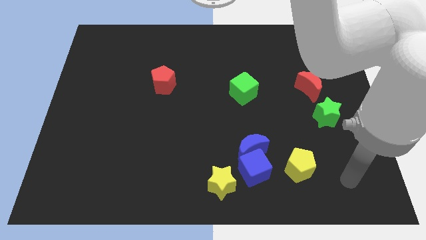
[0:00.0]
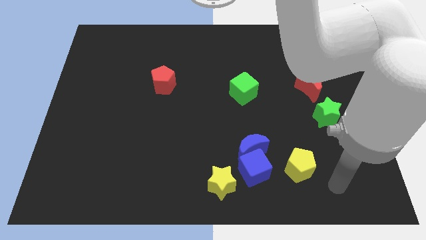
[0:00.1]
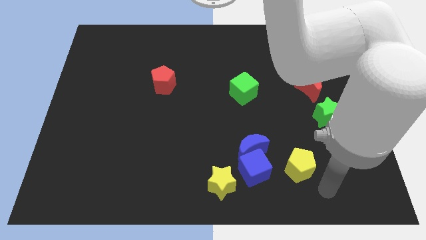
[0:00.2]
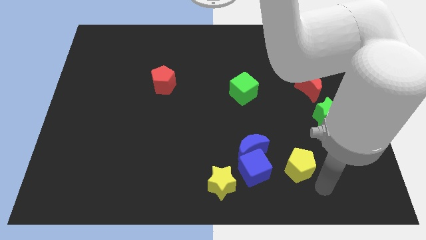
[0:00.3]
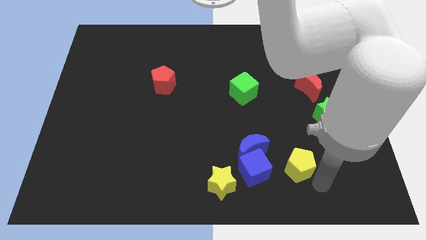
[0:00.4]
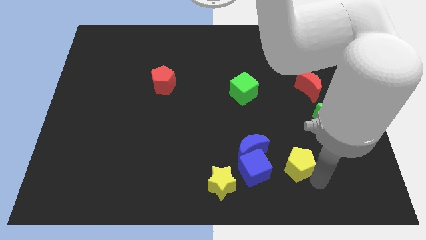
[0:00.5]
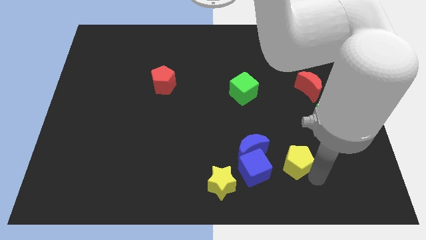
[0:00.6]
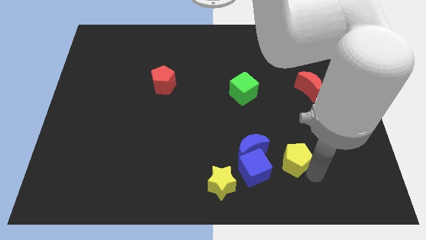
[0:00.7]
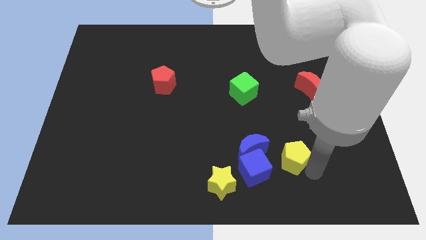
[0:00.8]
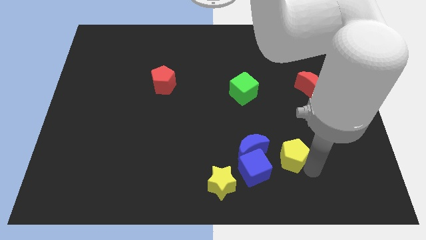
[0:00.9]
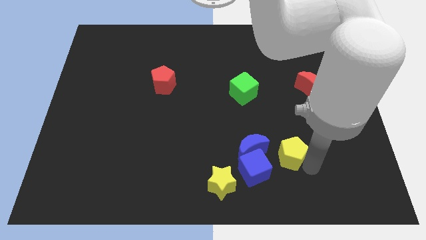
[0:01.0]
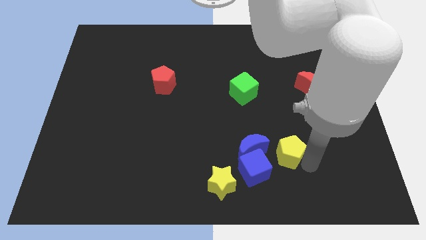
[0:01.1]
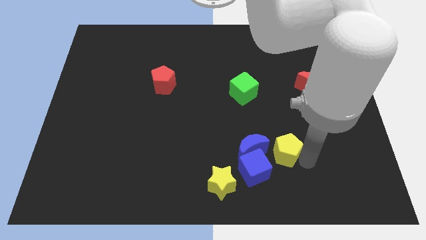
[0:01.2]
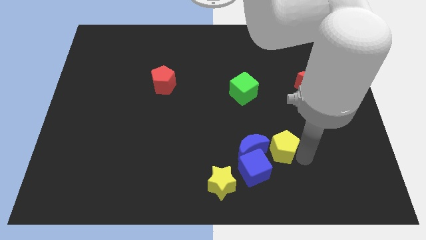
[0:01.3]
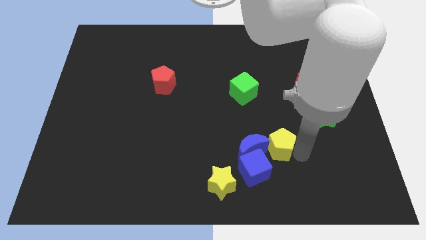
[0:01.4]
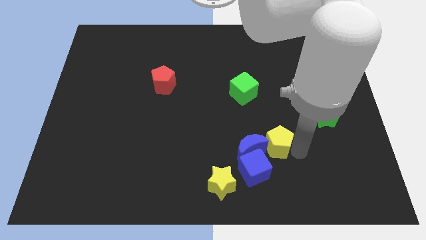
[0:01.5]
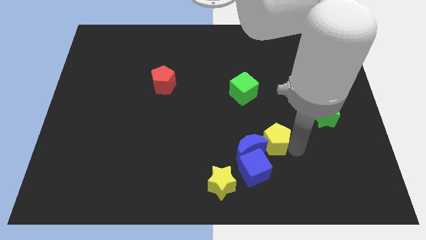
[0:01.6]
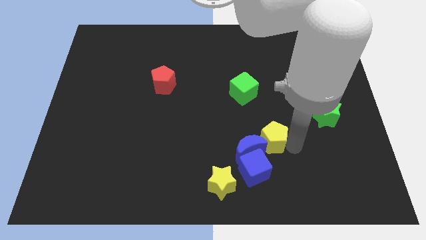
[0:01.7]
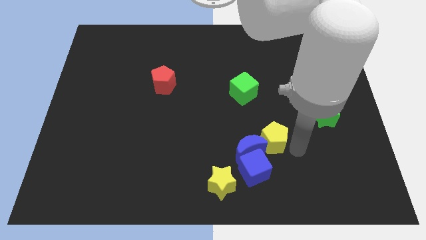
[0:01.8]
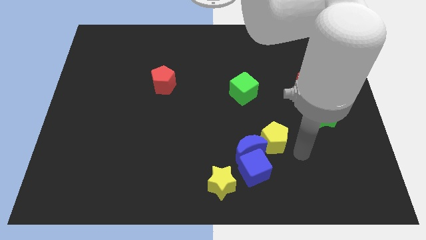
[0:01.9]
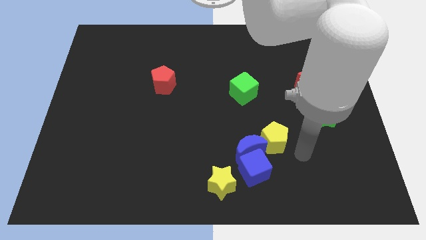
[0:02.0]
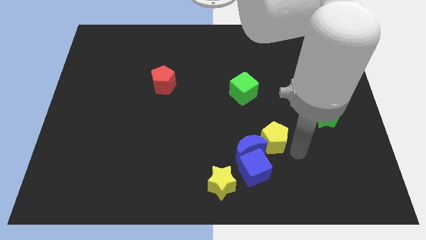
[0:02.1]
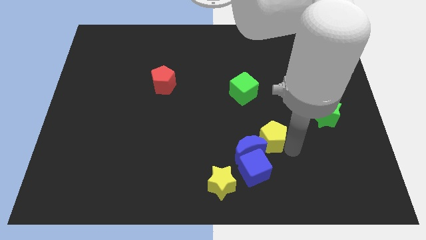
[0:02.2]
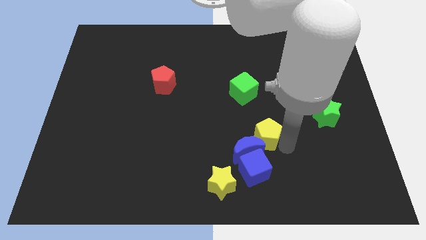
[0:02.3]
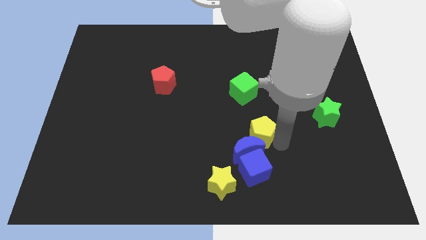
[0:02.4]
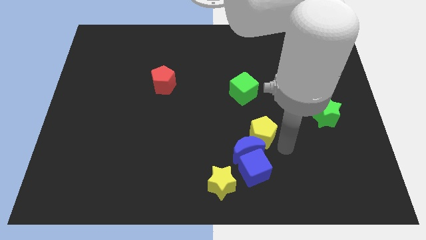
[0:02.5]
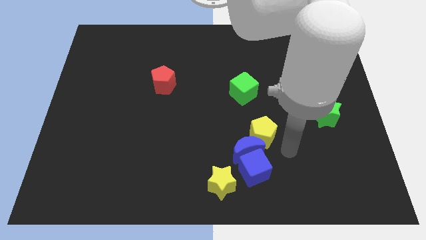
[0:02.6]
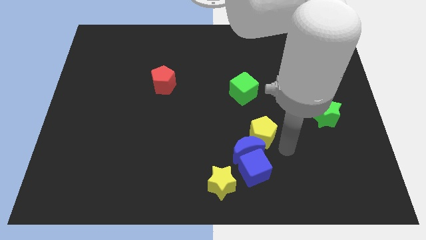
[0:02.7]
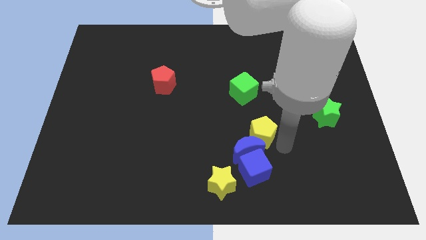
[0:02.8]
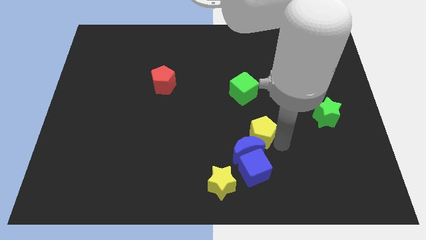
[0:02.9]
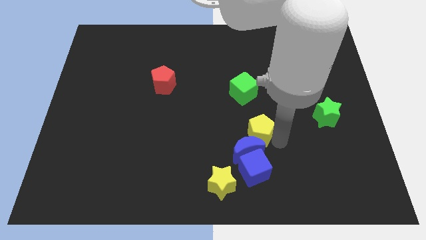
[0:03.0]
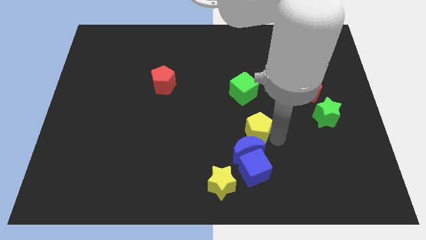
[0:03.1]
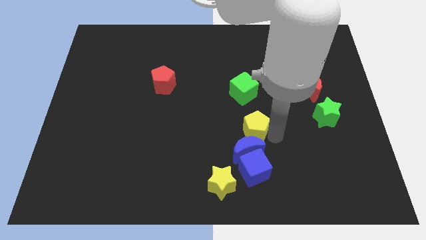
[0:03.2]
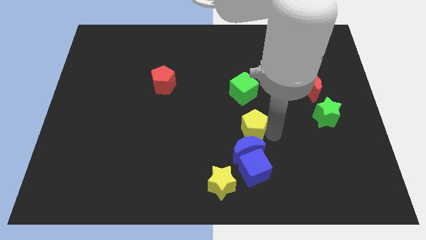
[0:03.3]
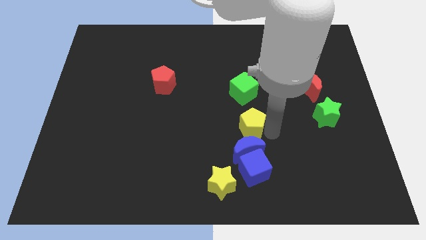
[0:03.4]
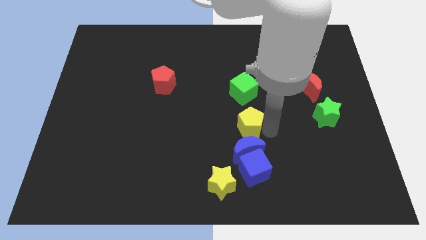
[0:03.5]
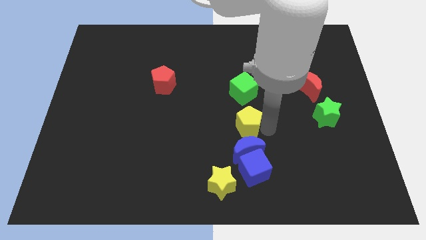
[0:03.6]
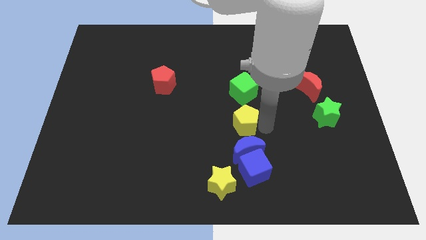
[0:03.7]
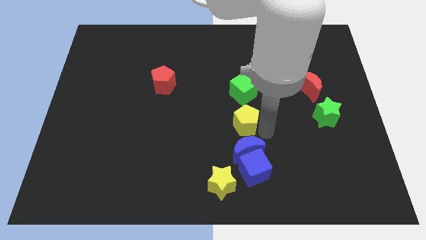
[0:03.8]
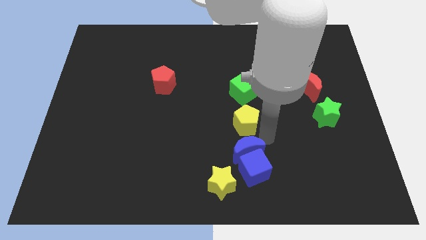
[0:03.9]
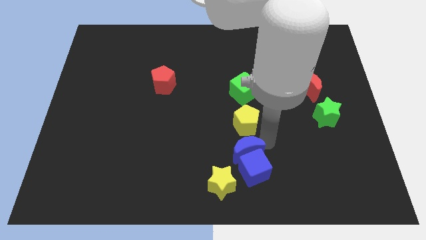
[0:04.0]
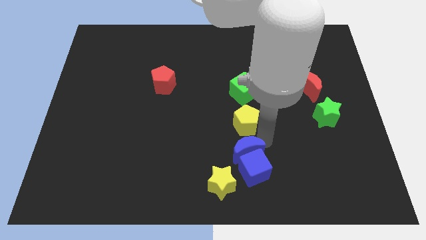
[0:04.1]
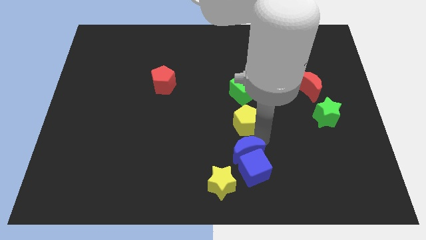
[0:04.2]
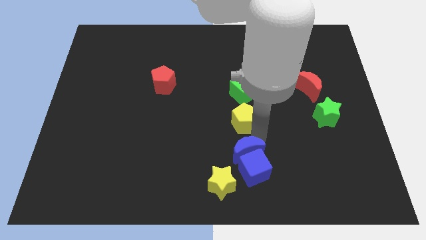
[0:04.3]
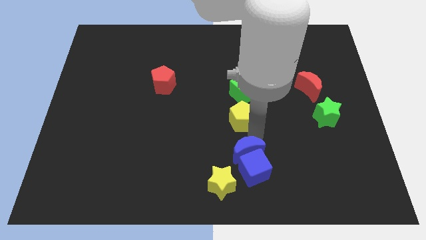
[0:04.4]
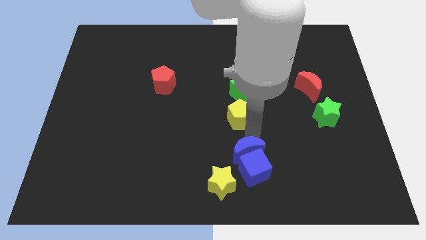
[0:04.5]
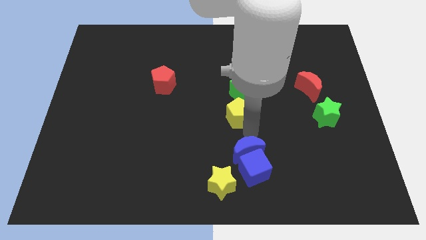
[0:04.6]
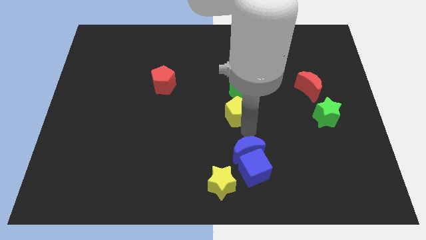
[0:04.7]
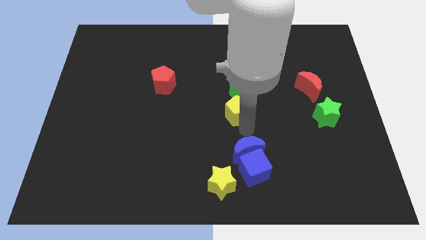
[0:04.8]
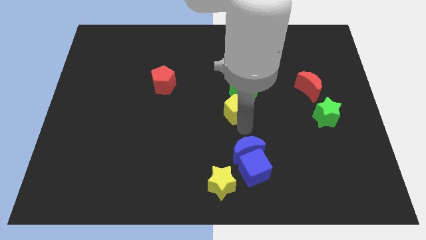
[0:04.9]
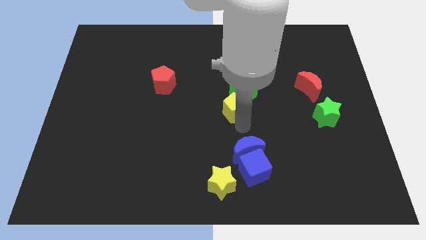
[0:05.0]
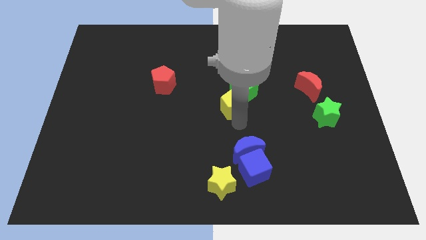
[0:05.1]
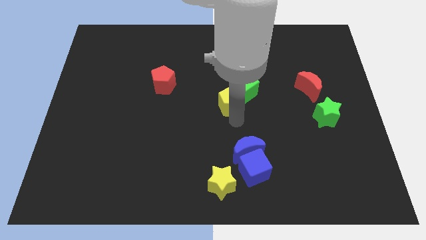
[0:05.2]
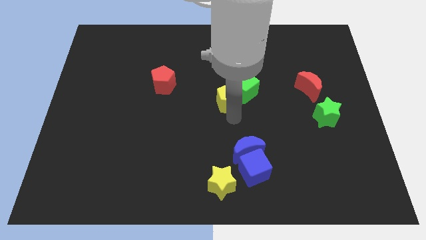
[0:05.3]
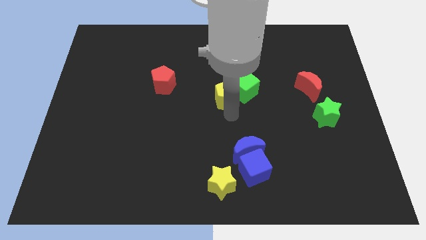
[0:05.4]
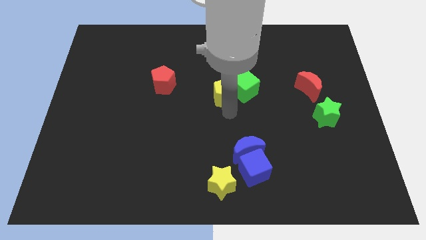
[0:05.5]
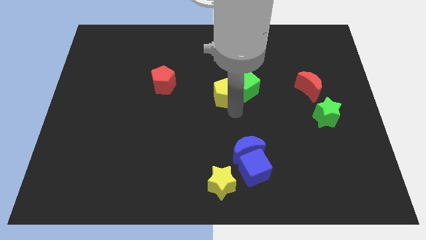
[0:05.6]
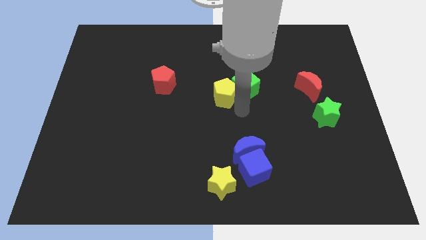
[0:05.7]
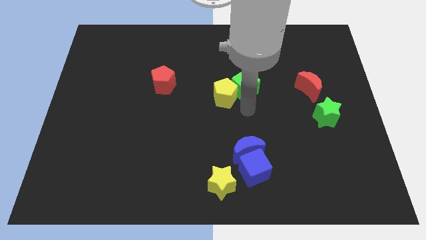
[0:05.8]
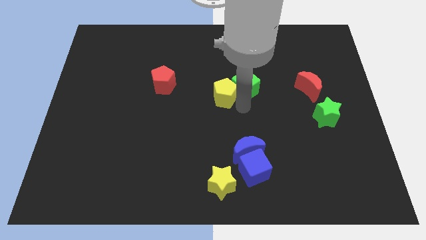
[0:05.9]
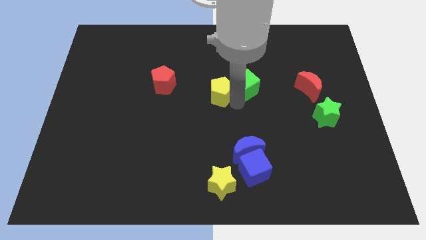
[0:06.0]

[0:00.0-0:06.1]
put the yellow pentagon to the right side of the red pentagon

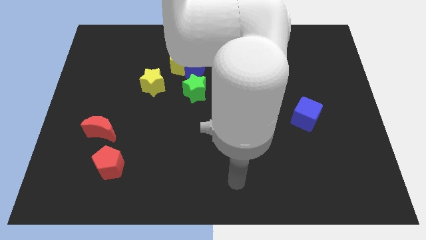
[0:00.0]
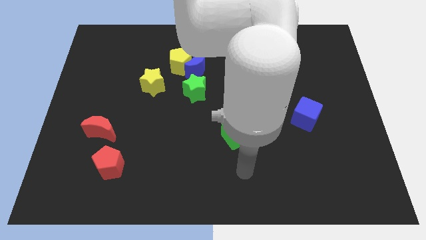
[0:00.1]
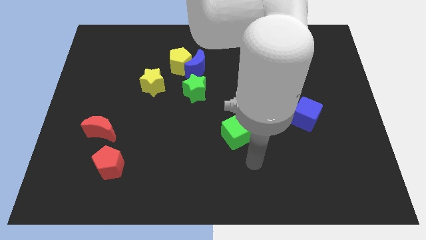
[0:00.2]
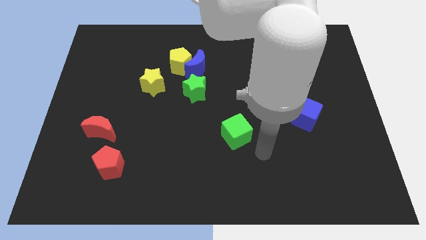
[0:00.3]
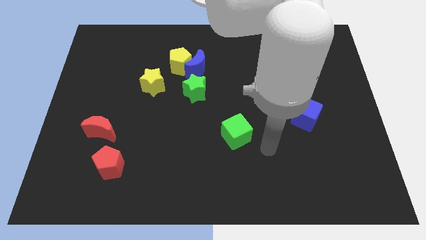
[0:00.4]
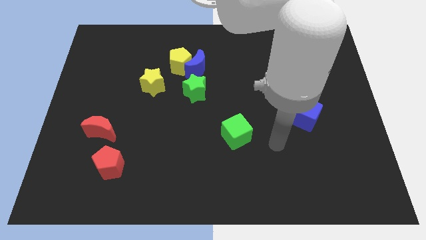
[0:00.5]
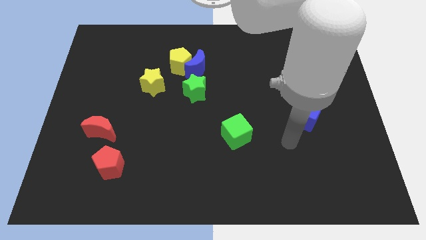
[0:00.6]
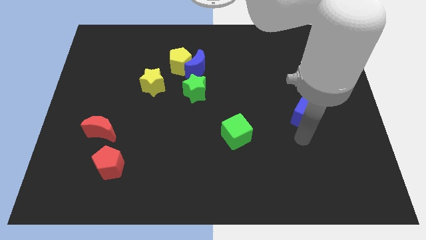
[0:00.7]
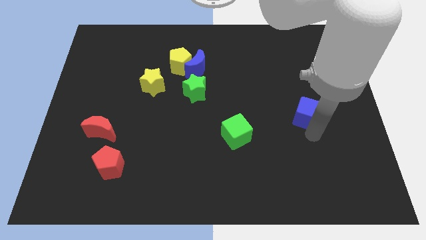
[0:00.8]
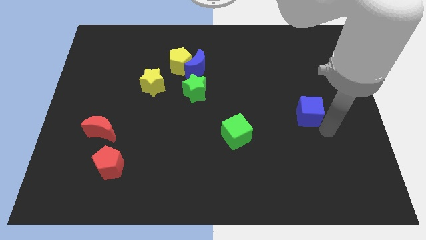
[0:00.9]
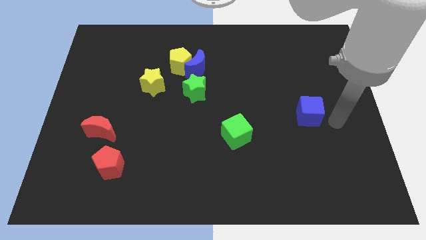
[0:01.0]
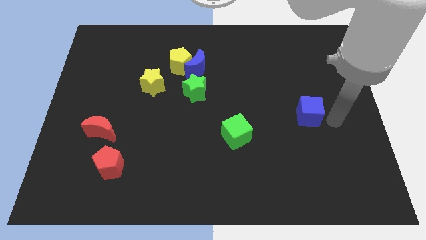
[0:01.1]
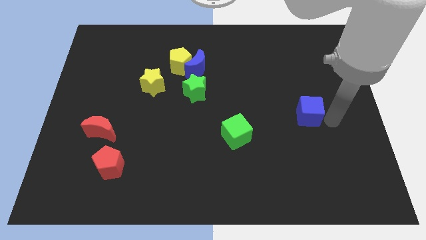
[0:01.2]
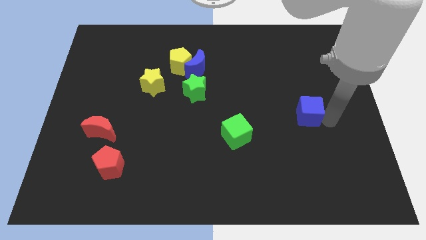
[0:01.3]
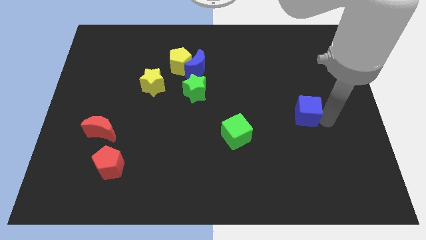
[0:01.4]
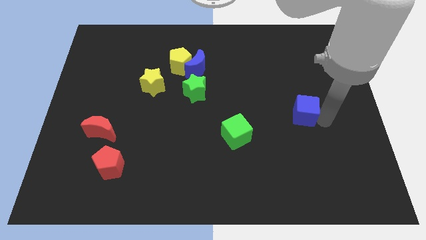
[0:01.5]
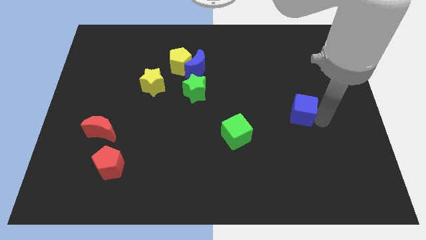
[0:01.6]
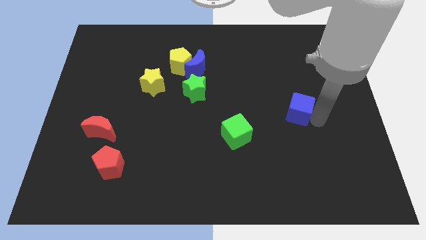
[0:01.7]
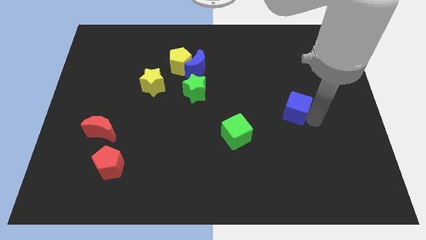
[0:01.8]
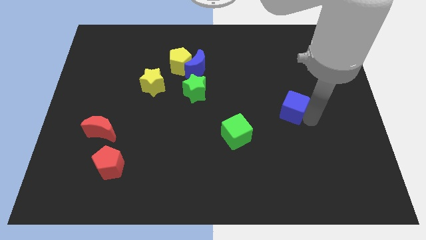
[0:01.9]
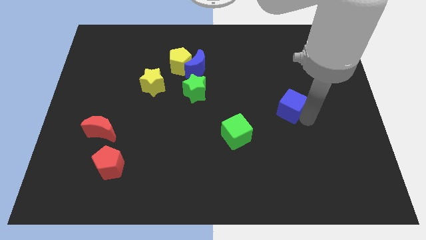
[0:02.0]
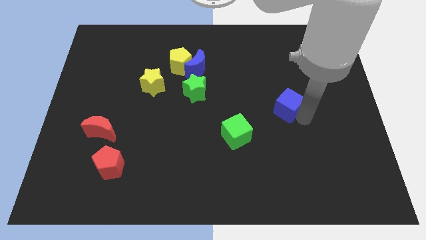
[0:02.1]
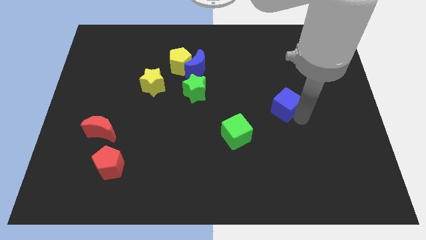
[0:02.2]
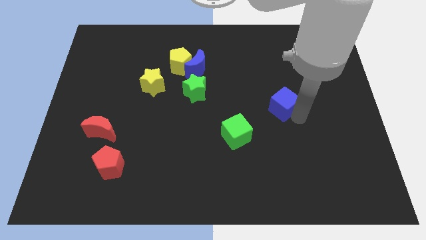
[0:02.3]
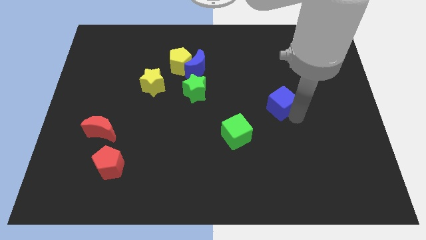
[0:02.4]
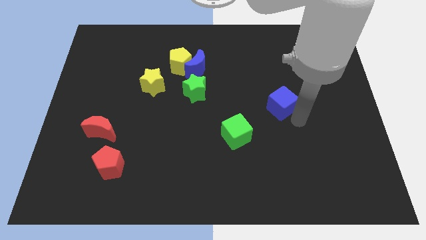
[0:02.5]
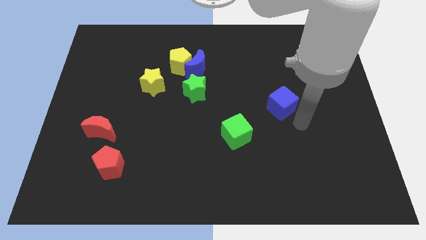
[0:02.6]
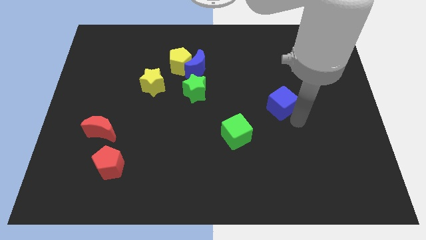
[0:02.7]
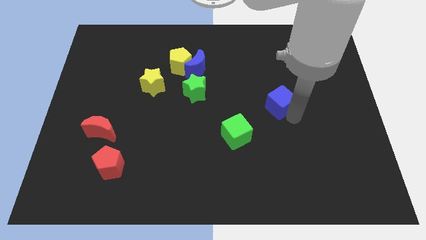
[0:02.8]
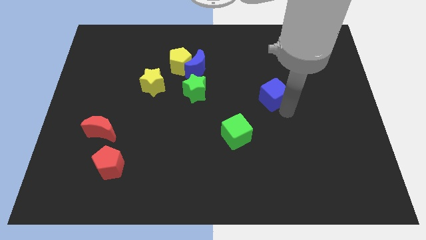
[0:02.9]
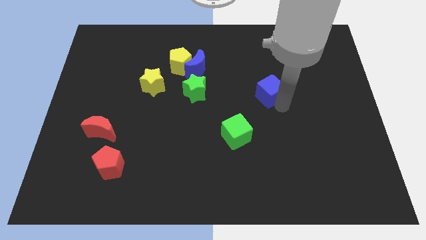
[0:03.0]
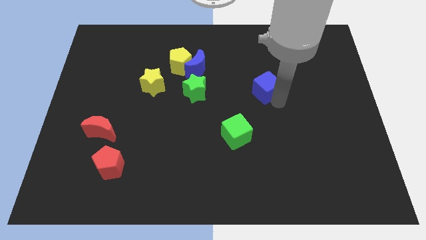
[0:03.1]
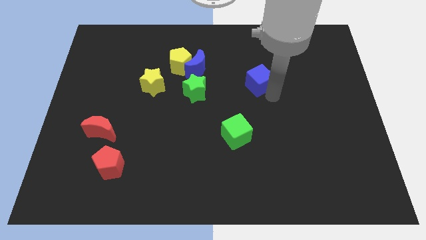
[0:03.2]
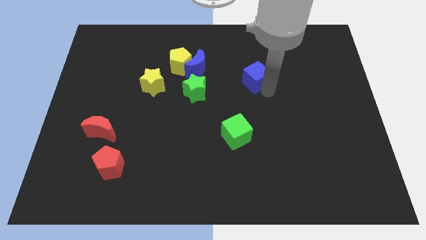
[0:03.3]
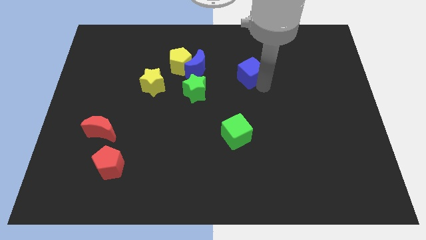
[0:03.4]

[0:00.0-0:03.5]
push the blue cube just right of the blue moon
